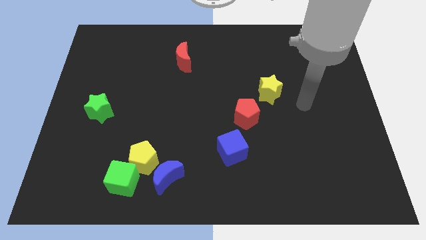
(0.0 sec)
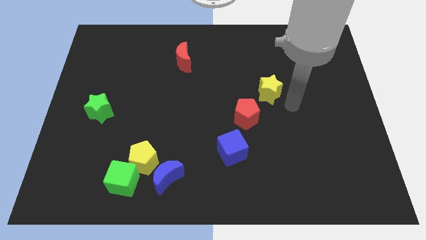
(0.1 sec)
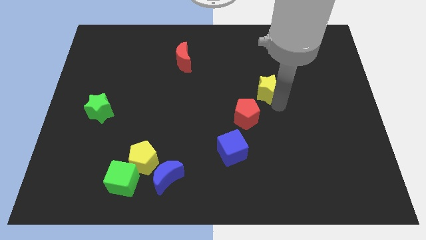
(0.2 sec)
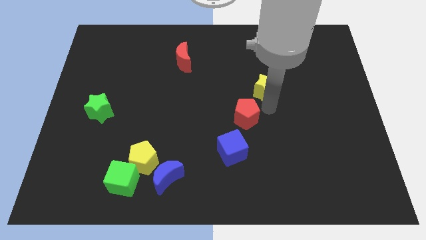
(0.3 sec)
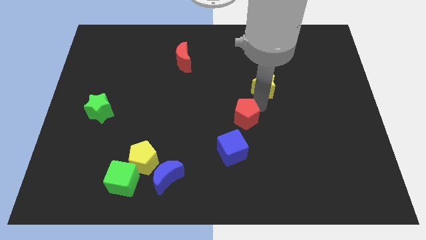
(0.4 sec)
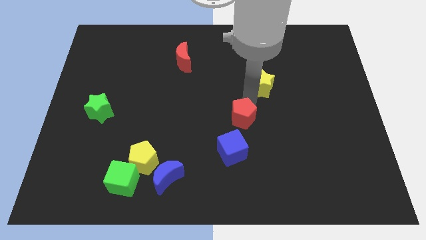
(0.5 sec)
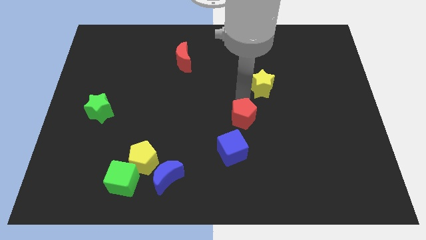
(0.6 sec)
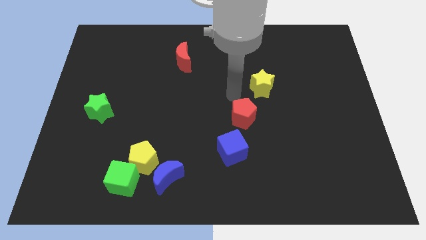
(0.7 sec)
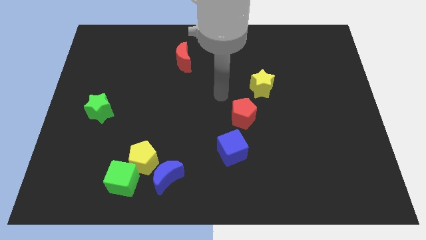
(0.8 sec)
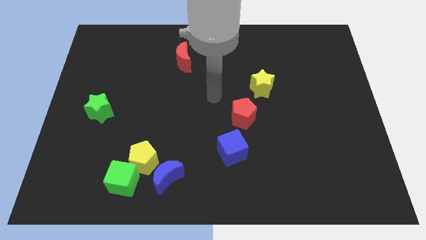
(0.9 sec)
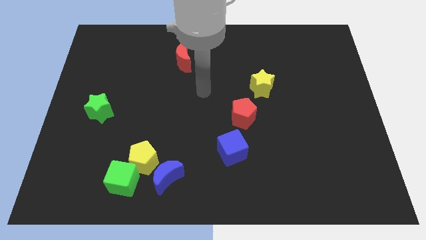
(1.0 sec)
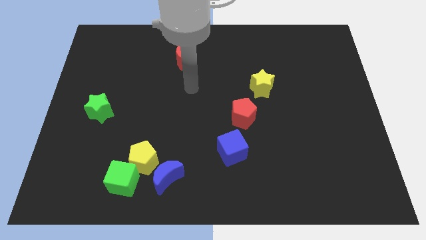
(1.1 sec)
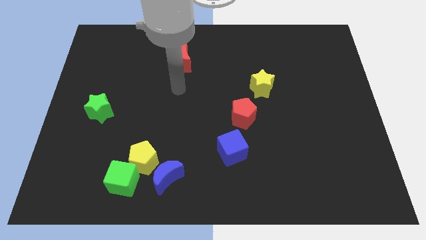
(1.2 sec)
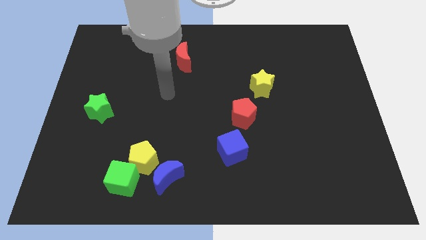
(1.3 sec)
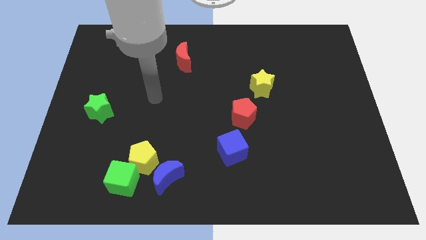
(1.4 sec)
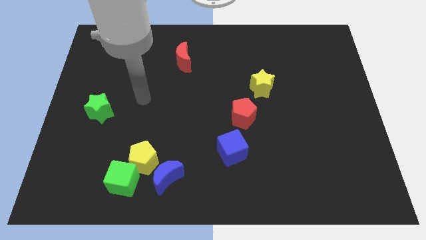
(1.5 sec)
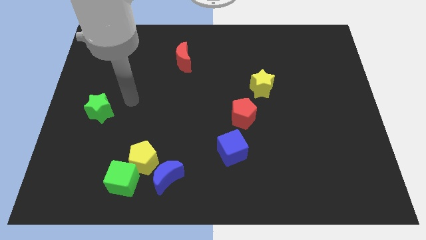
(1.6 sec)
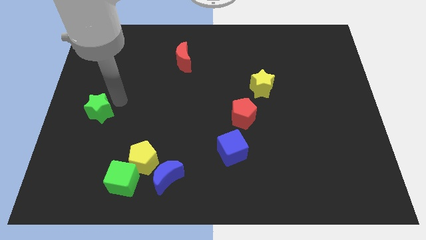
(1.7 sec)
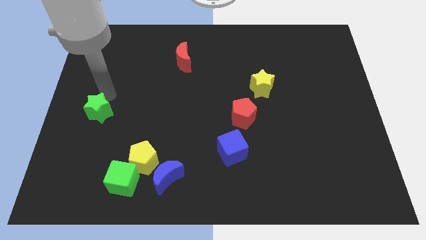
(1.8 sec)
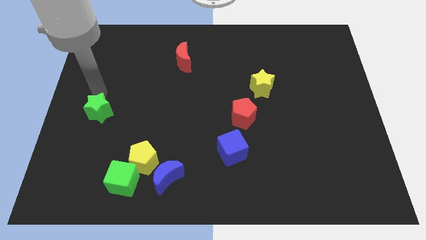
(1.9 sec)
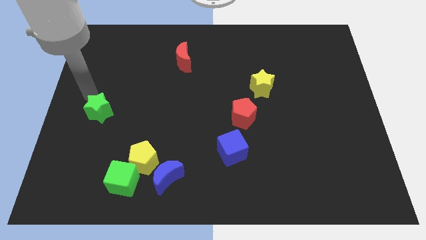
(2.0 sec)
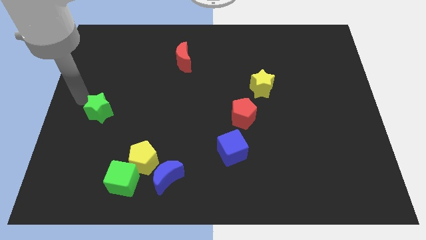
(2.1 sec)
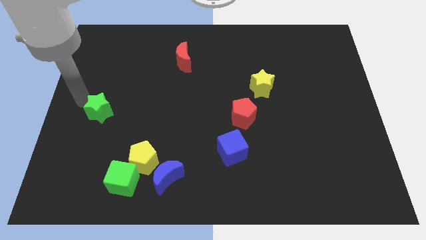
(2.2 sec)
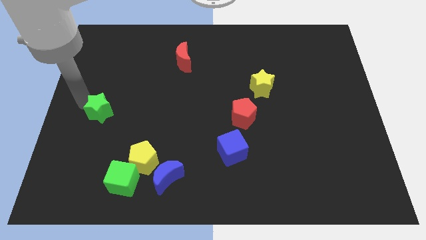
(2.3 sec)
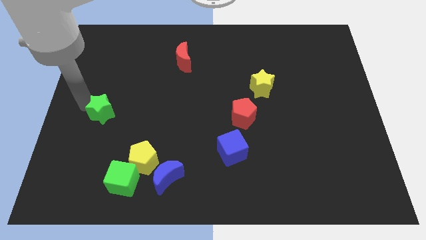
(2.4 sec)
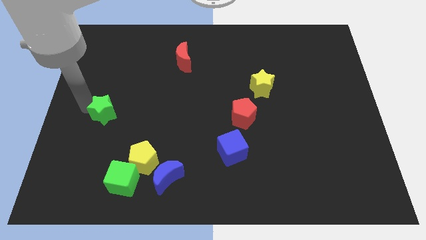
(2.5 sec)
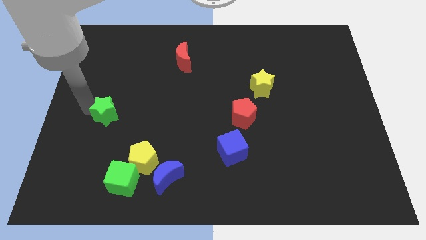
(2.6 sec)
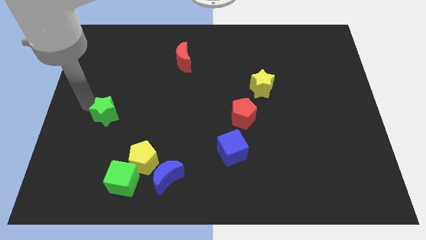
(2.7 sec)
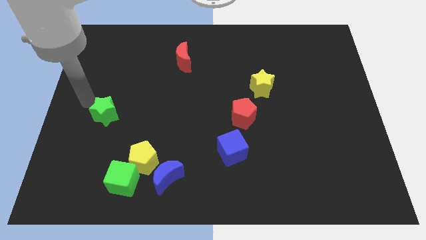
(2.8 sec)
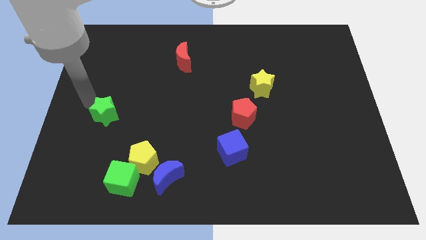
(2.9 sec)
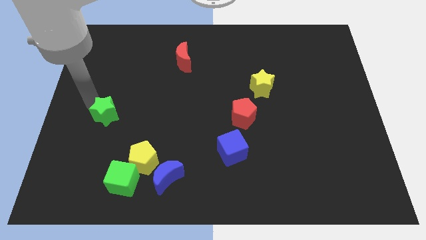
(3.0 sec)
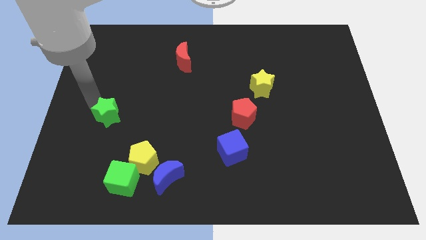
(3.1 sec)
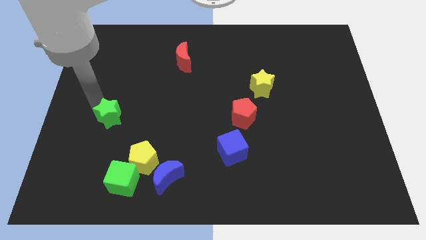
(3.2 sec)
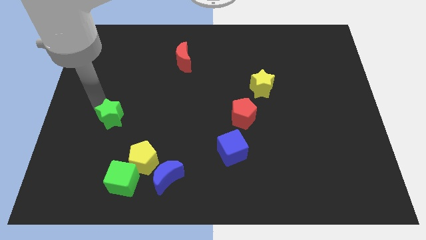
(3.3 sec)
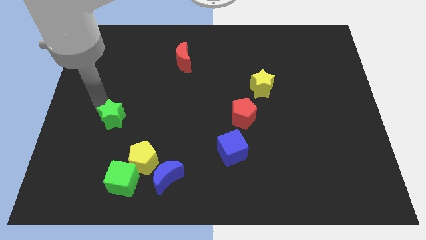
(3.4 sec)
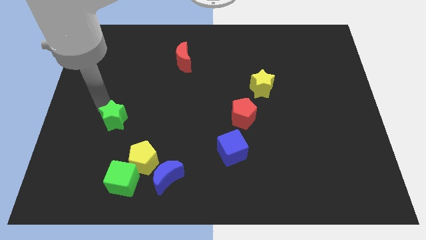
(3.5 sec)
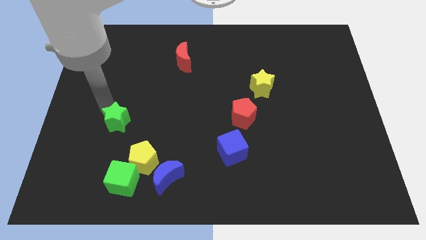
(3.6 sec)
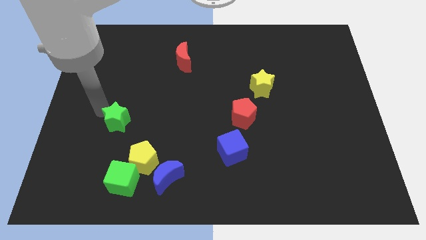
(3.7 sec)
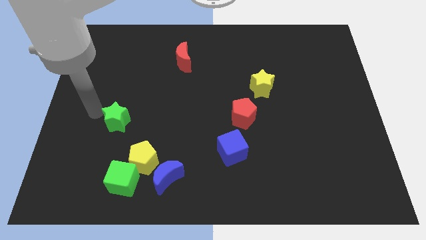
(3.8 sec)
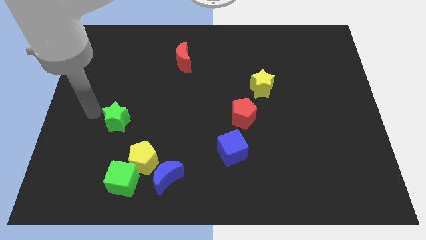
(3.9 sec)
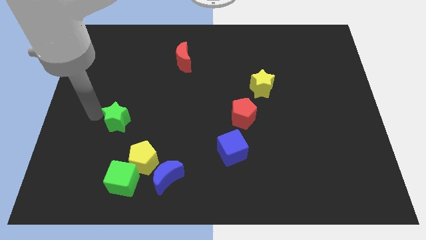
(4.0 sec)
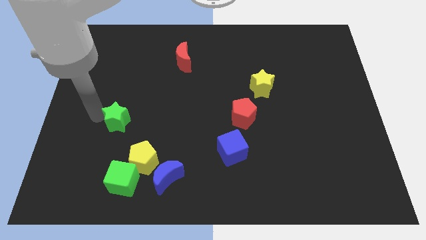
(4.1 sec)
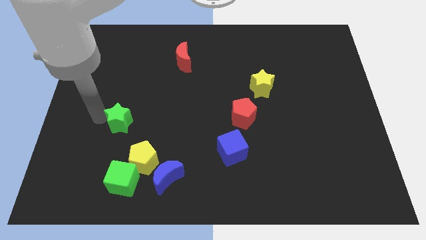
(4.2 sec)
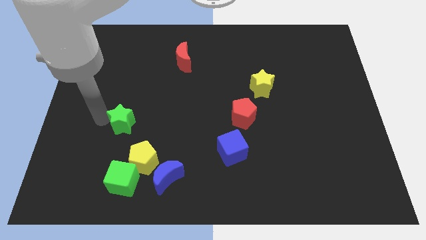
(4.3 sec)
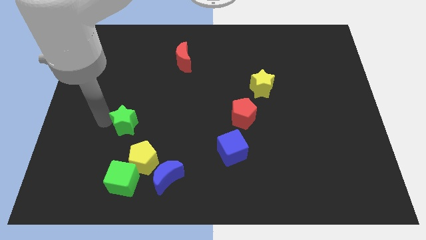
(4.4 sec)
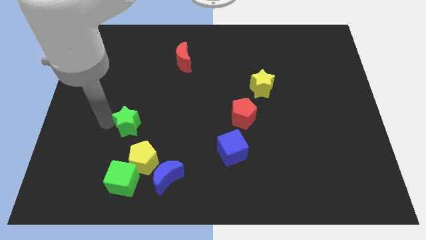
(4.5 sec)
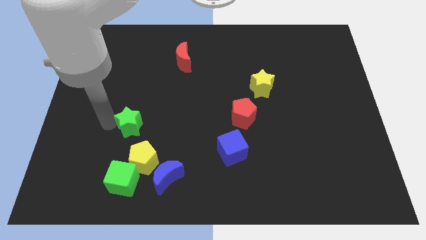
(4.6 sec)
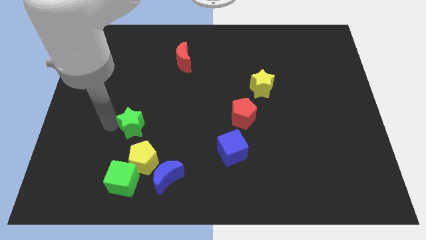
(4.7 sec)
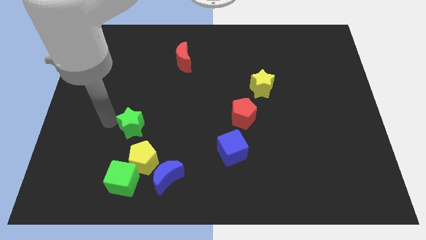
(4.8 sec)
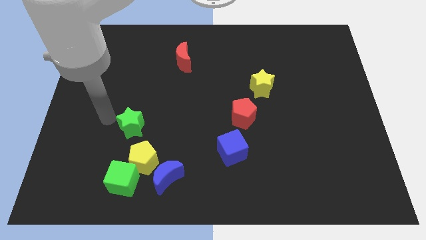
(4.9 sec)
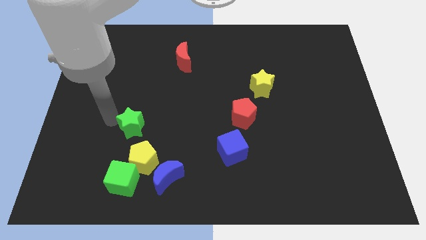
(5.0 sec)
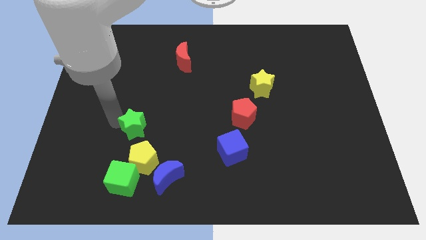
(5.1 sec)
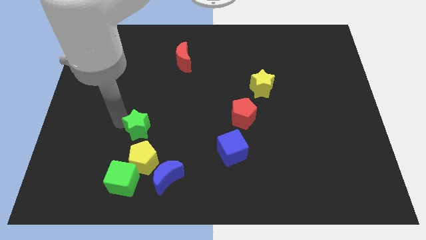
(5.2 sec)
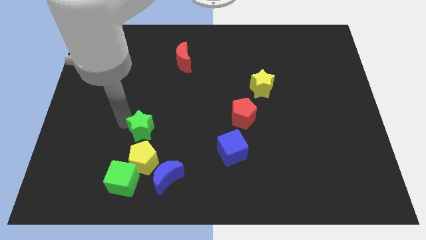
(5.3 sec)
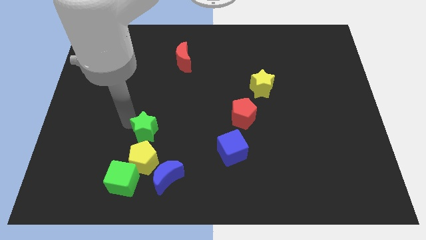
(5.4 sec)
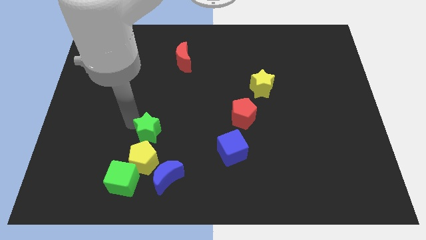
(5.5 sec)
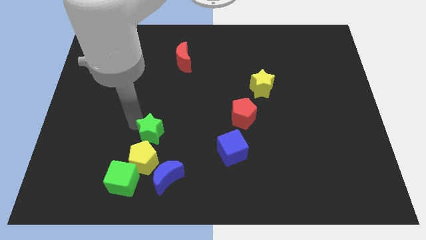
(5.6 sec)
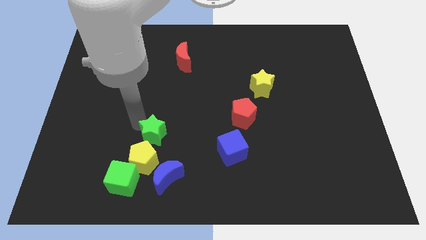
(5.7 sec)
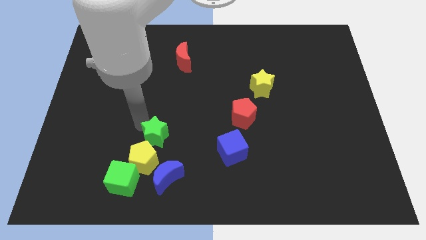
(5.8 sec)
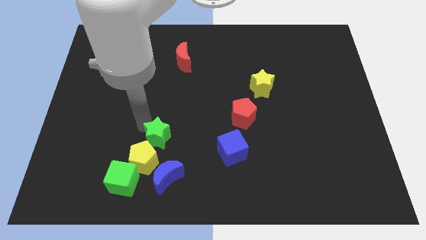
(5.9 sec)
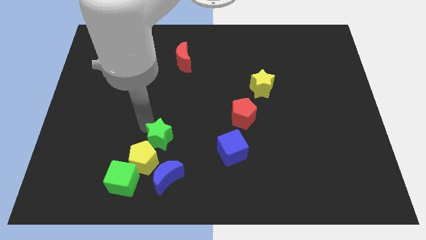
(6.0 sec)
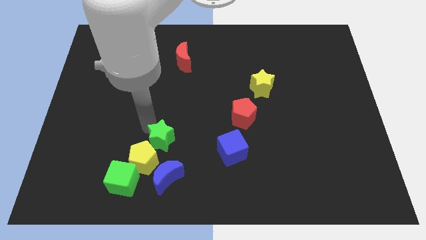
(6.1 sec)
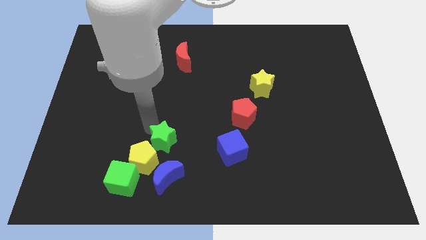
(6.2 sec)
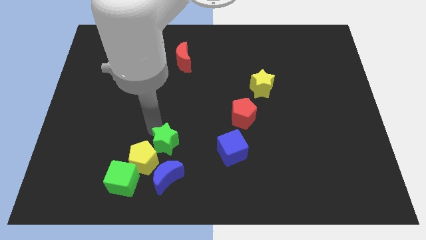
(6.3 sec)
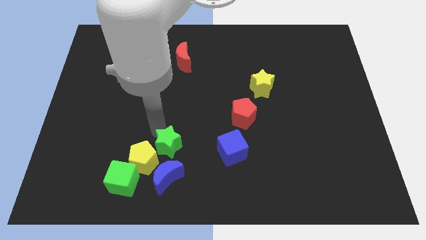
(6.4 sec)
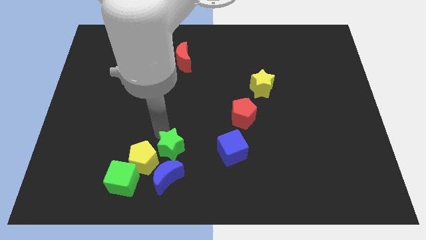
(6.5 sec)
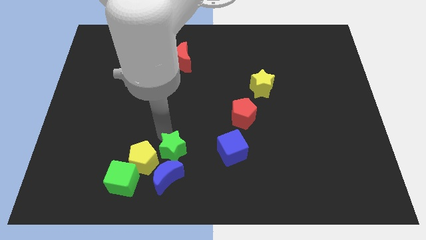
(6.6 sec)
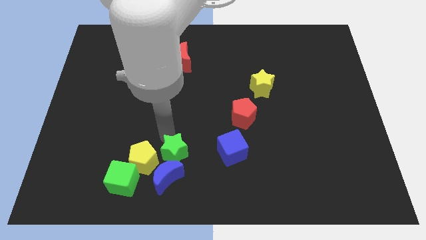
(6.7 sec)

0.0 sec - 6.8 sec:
push the green star towards the blue moon

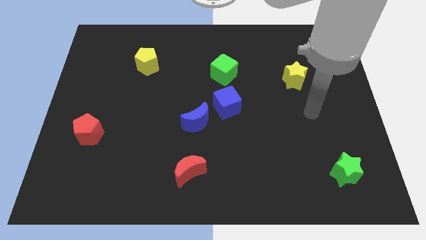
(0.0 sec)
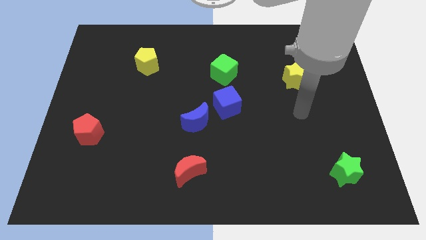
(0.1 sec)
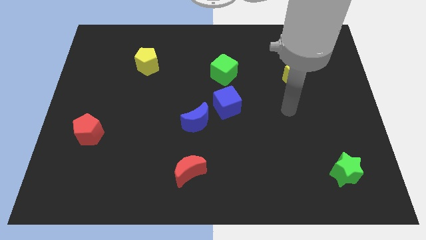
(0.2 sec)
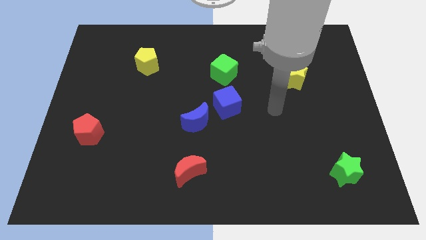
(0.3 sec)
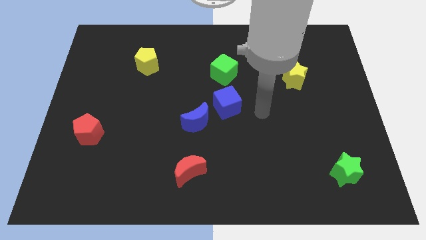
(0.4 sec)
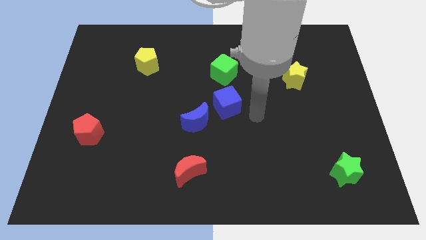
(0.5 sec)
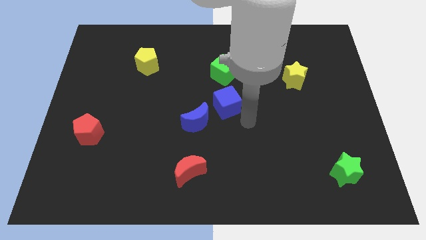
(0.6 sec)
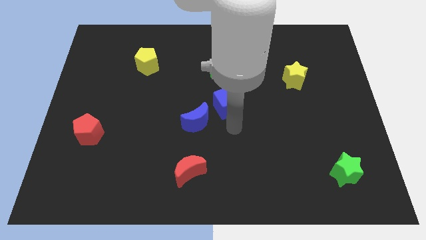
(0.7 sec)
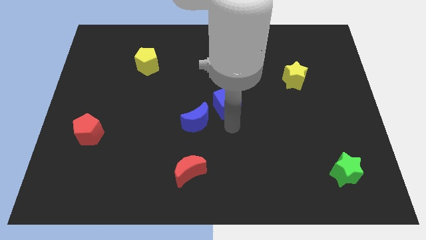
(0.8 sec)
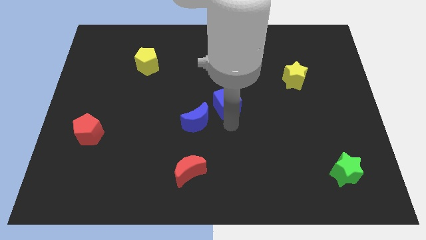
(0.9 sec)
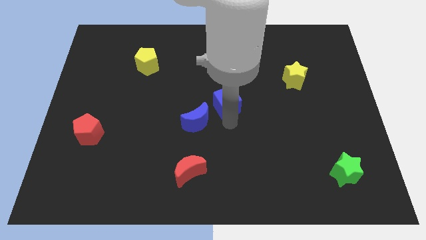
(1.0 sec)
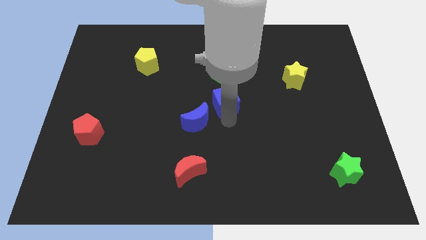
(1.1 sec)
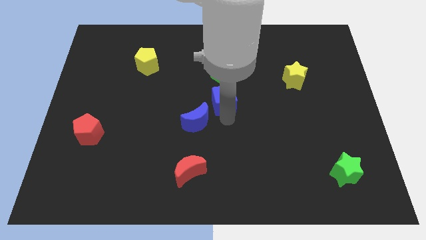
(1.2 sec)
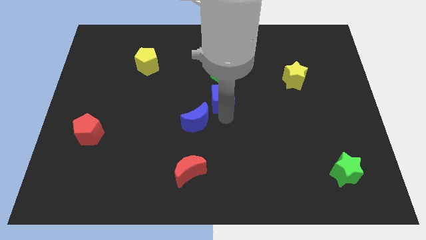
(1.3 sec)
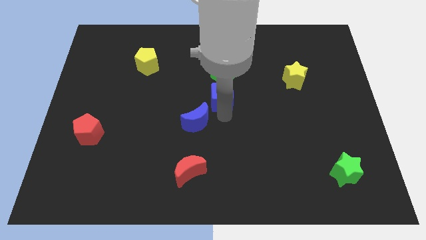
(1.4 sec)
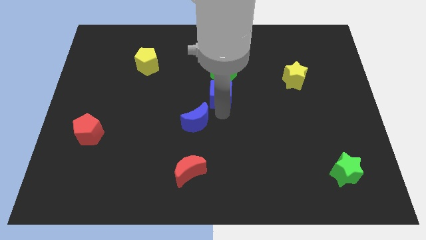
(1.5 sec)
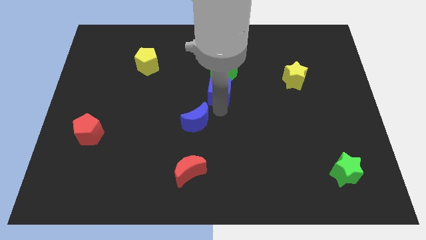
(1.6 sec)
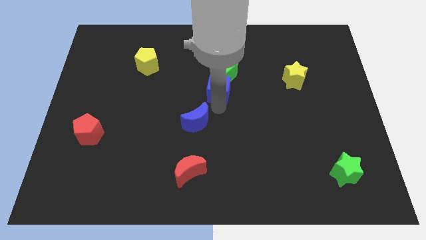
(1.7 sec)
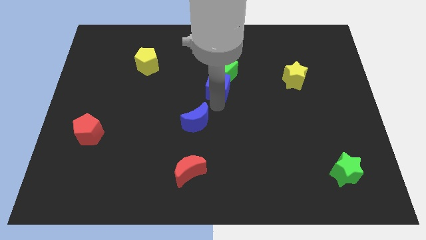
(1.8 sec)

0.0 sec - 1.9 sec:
put the blue cube next to the green cube
